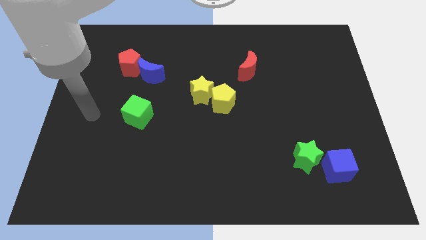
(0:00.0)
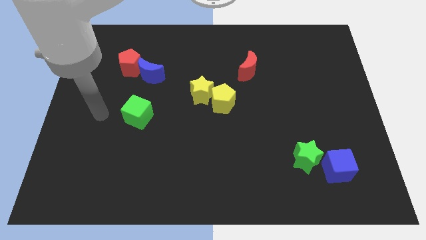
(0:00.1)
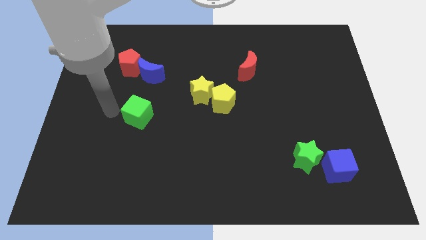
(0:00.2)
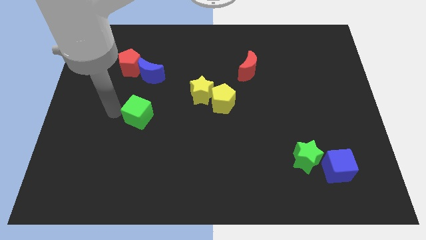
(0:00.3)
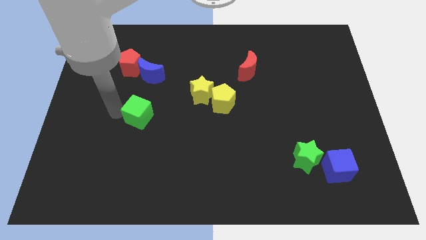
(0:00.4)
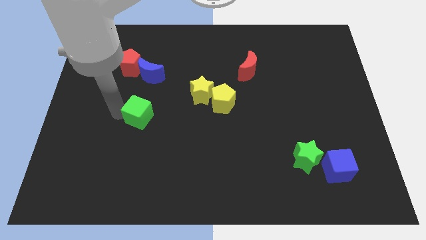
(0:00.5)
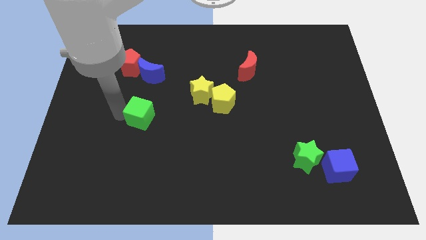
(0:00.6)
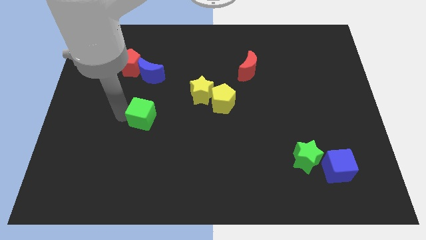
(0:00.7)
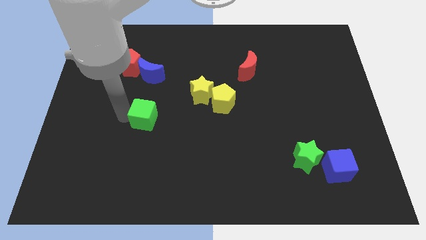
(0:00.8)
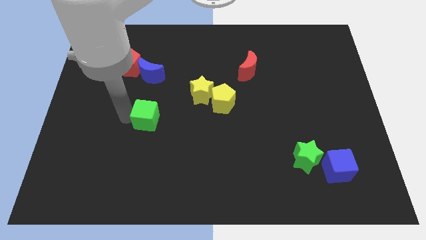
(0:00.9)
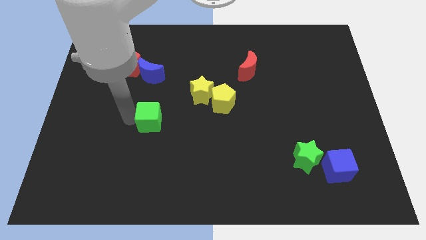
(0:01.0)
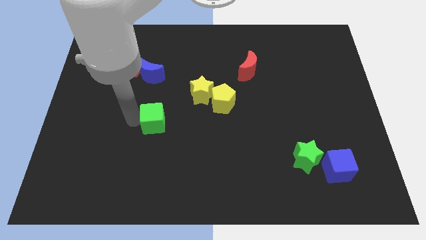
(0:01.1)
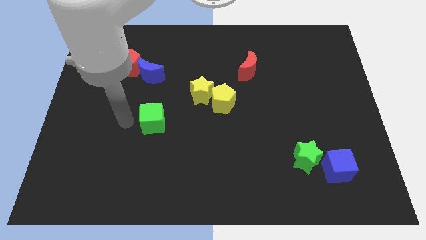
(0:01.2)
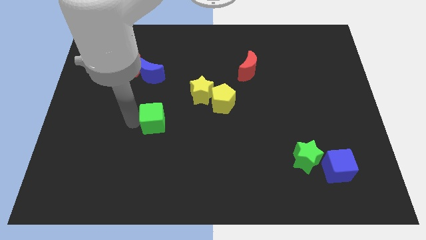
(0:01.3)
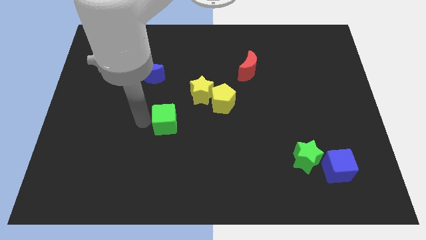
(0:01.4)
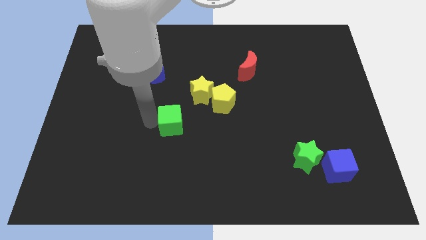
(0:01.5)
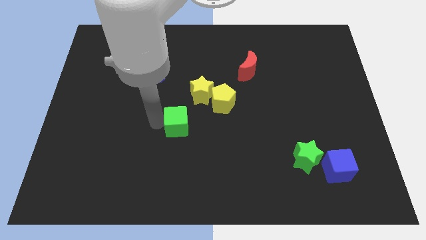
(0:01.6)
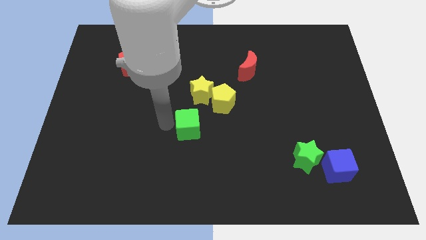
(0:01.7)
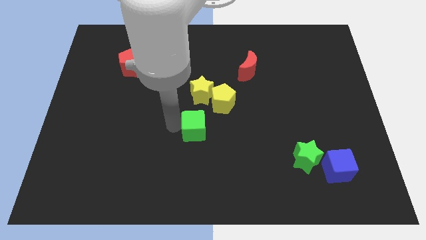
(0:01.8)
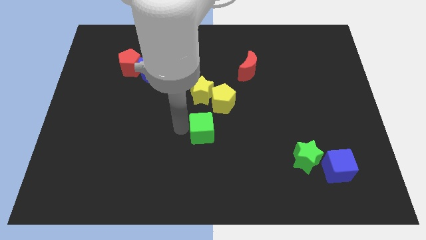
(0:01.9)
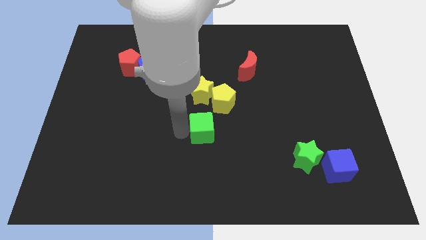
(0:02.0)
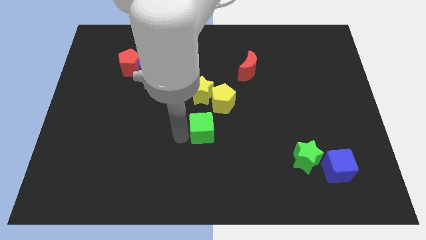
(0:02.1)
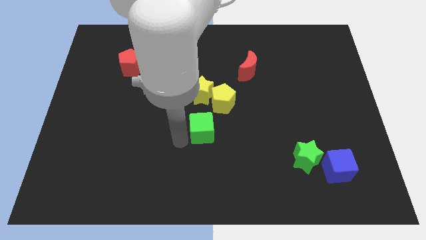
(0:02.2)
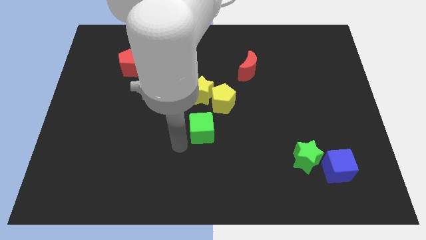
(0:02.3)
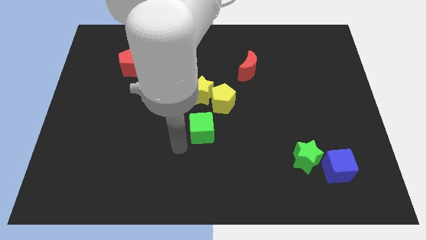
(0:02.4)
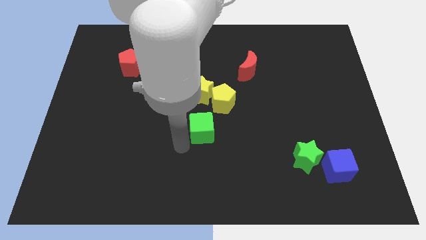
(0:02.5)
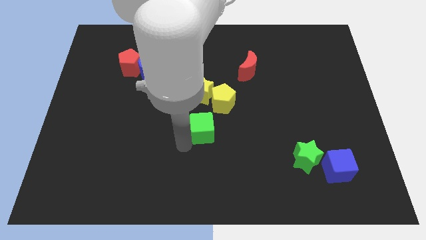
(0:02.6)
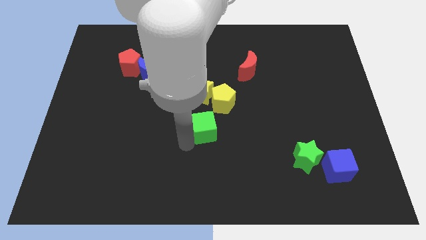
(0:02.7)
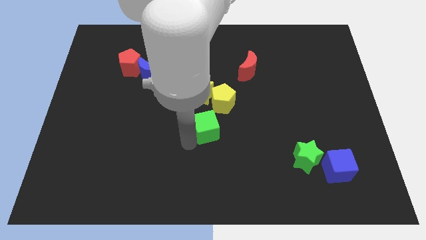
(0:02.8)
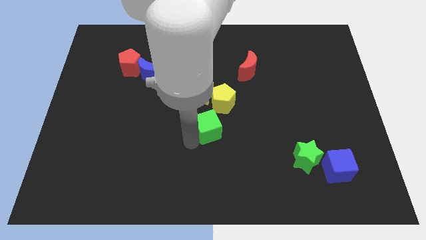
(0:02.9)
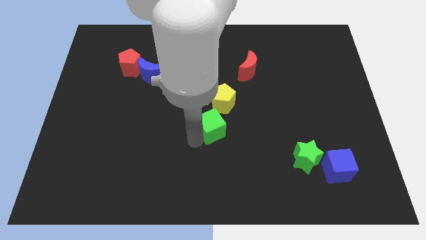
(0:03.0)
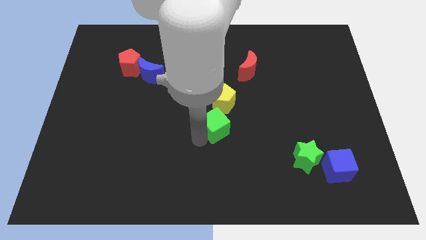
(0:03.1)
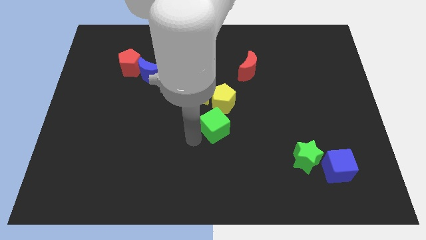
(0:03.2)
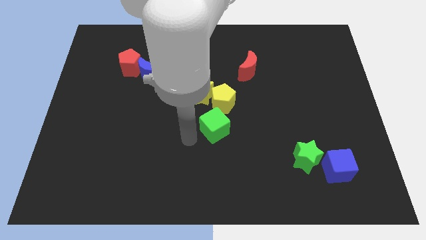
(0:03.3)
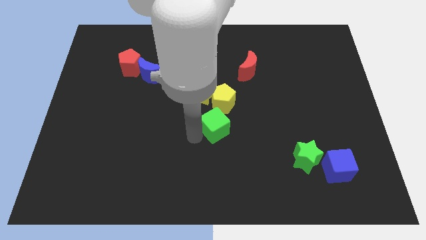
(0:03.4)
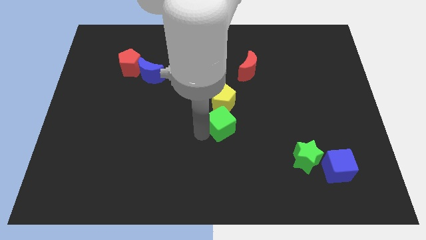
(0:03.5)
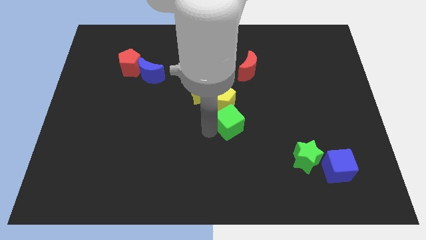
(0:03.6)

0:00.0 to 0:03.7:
slide the green cube to the right

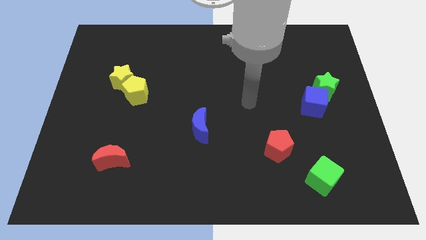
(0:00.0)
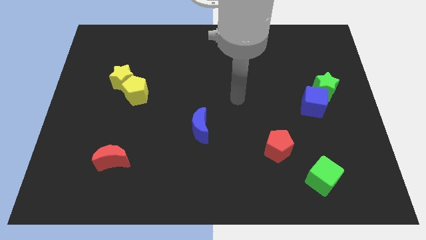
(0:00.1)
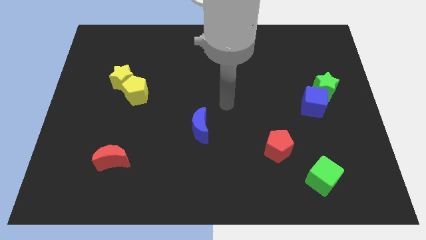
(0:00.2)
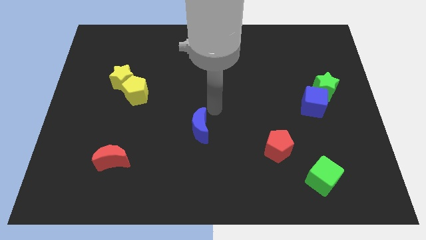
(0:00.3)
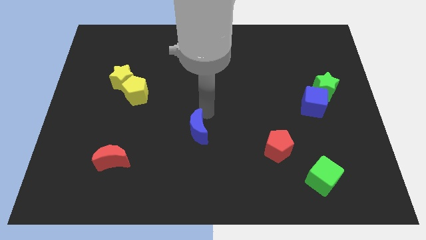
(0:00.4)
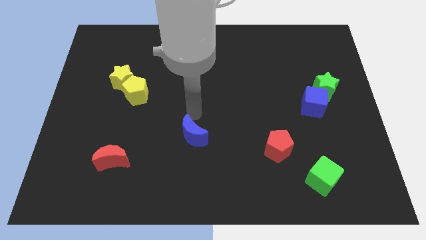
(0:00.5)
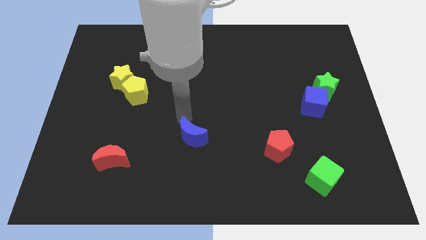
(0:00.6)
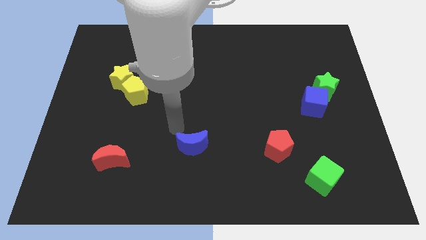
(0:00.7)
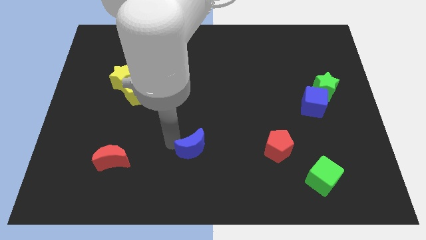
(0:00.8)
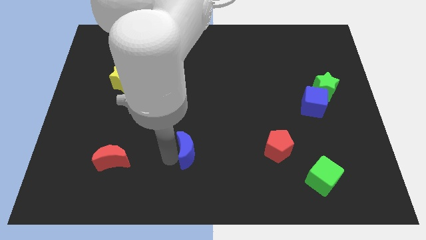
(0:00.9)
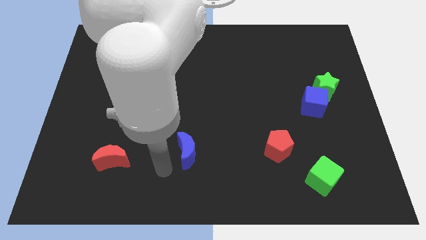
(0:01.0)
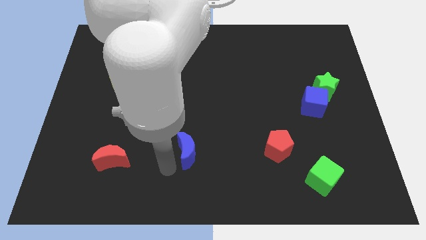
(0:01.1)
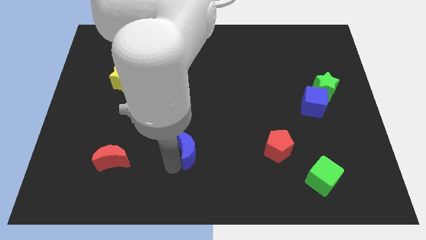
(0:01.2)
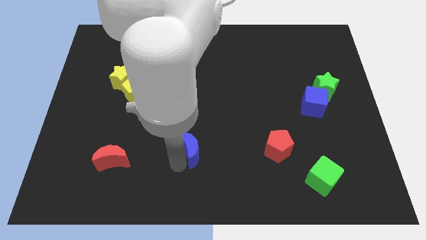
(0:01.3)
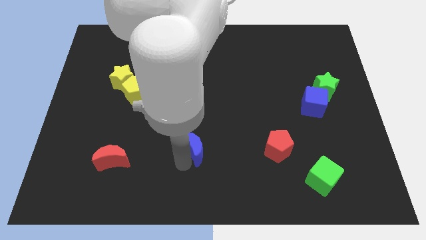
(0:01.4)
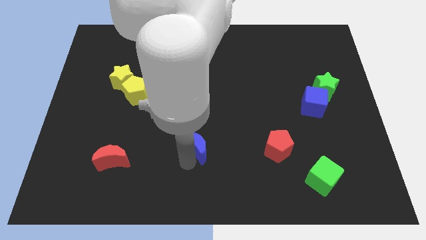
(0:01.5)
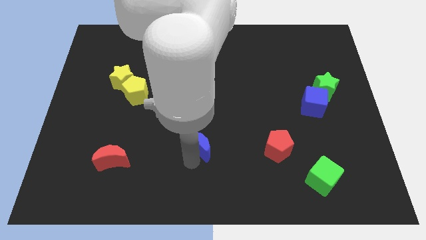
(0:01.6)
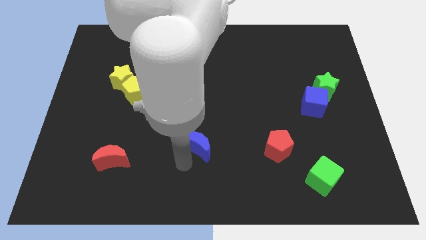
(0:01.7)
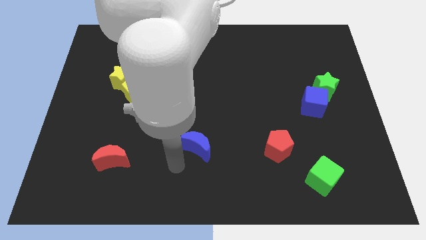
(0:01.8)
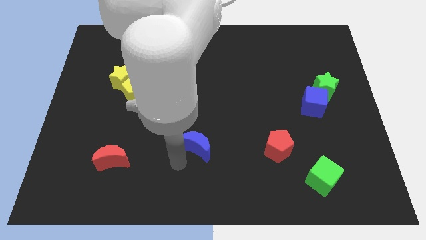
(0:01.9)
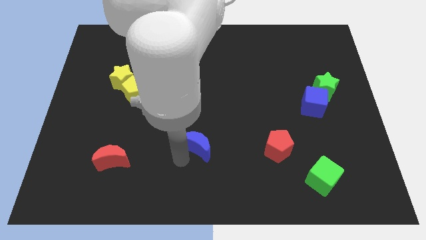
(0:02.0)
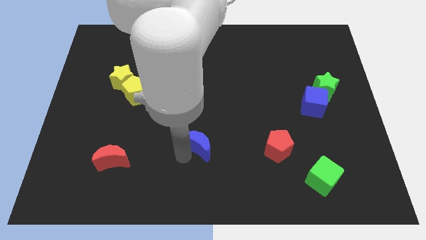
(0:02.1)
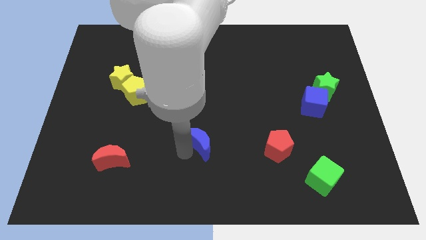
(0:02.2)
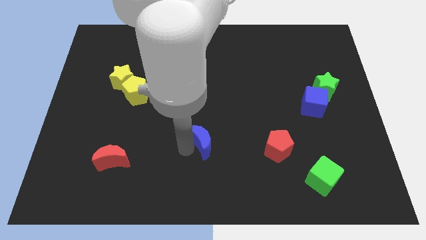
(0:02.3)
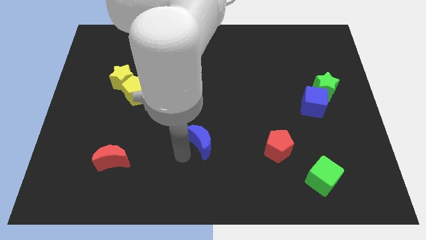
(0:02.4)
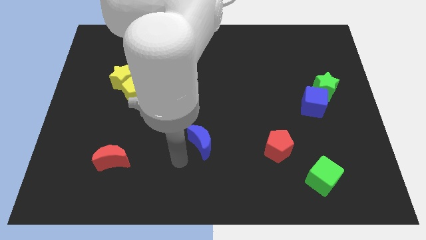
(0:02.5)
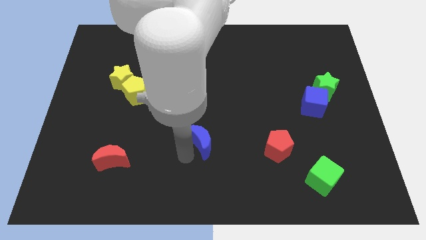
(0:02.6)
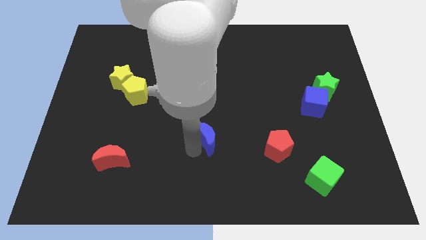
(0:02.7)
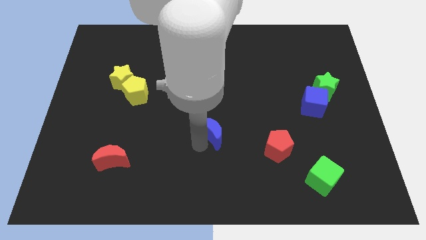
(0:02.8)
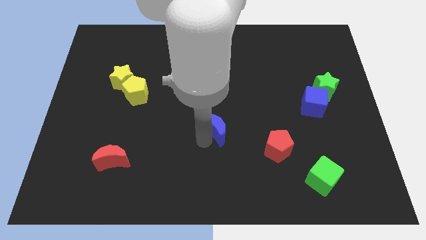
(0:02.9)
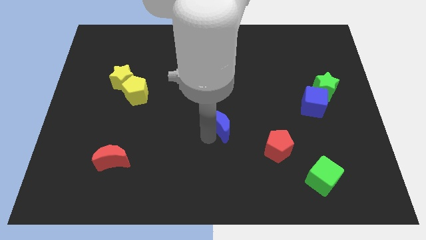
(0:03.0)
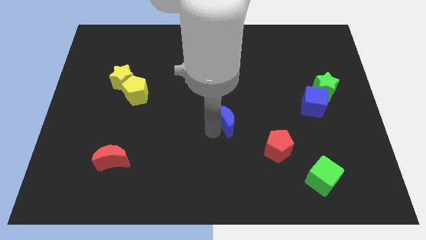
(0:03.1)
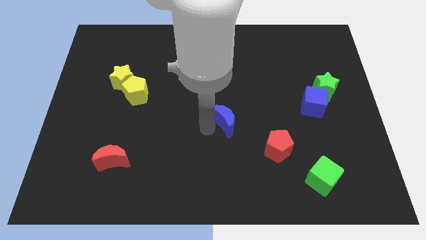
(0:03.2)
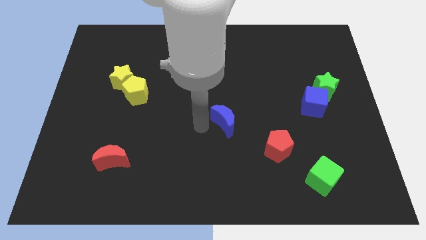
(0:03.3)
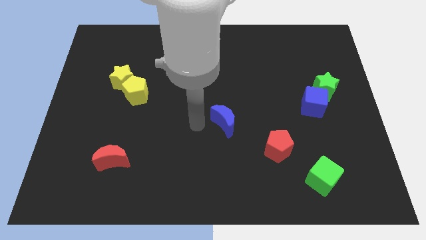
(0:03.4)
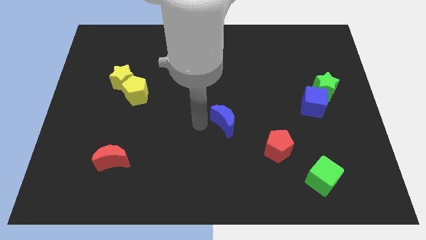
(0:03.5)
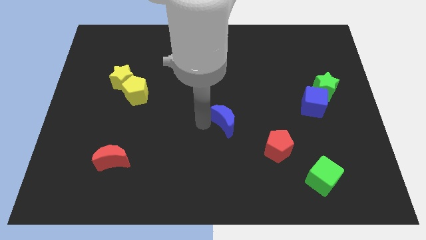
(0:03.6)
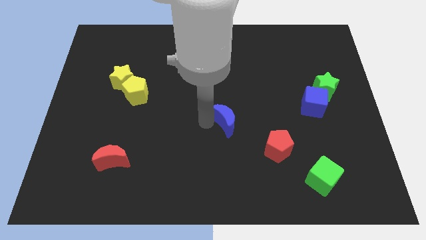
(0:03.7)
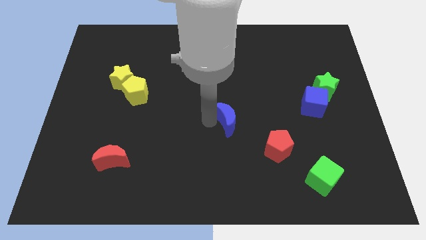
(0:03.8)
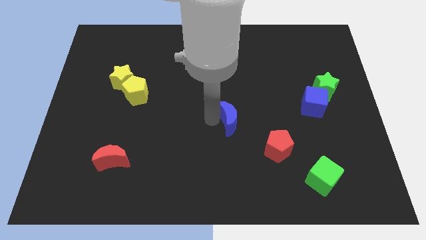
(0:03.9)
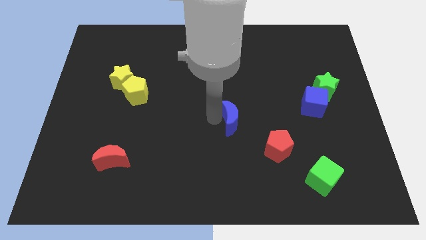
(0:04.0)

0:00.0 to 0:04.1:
slide the blue moon right slightly

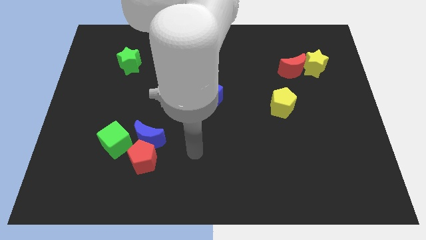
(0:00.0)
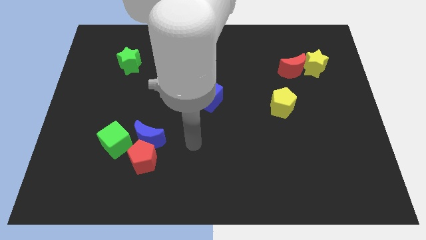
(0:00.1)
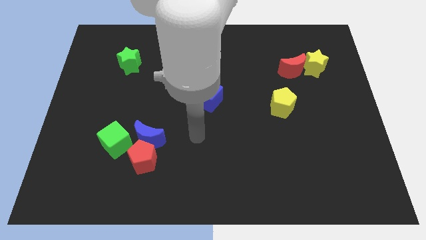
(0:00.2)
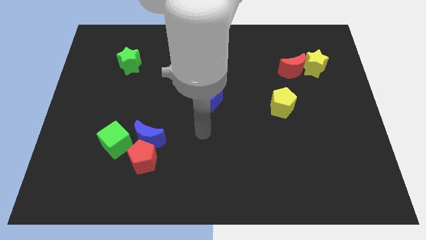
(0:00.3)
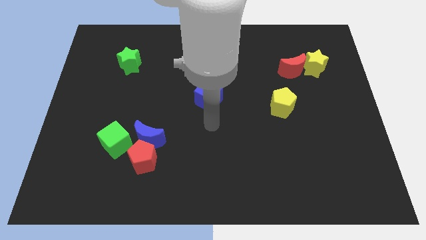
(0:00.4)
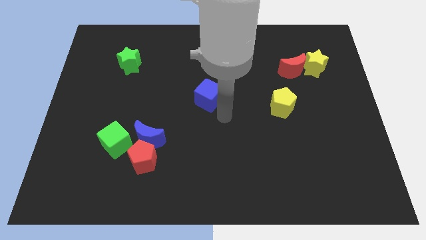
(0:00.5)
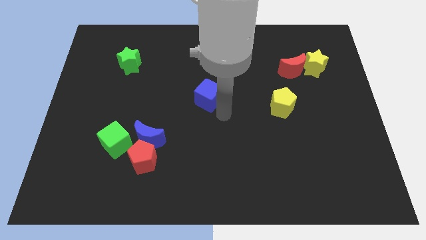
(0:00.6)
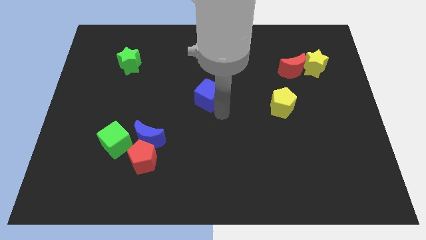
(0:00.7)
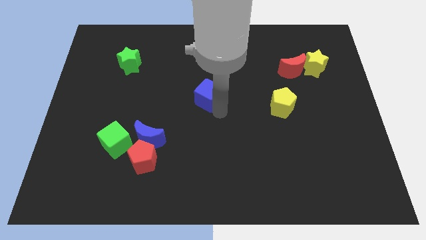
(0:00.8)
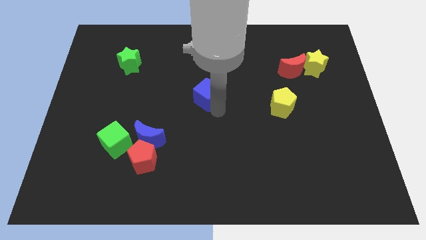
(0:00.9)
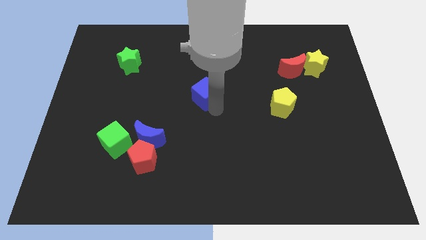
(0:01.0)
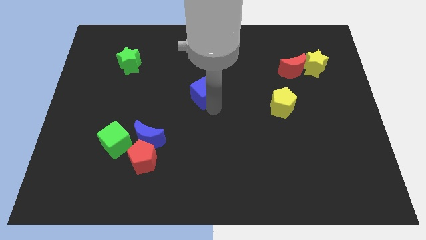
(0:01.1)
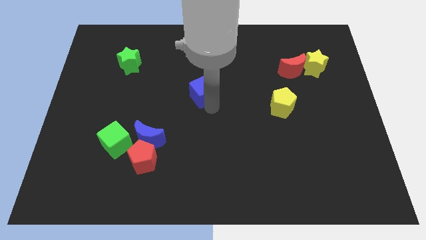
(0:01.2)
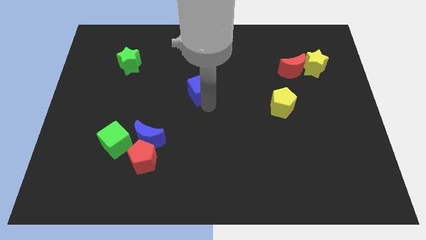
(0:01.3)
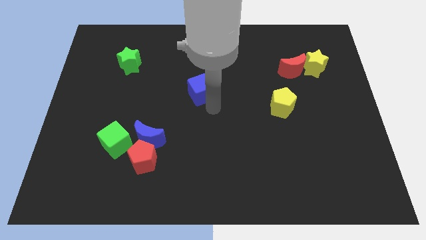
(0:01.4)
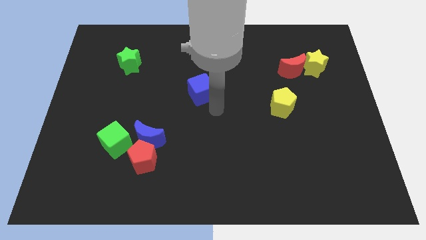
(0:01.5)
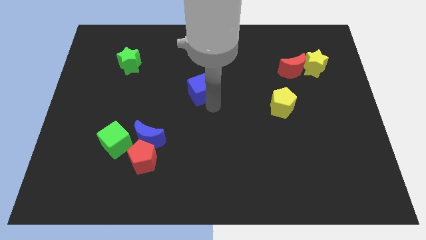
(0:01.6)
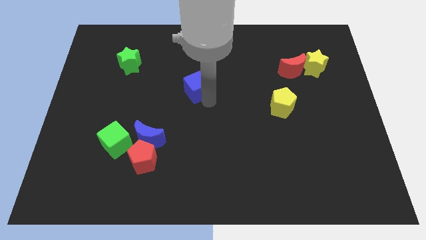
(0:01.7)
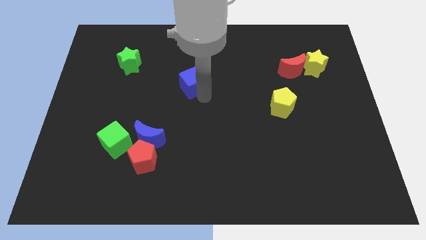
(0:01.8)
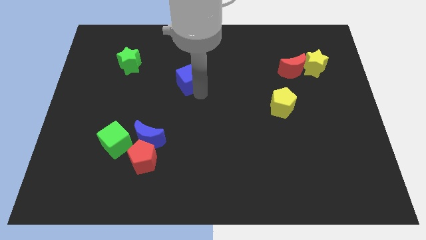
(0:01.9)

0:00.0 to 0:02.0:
slightly push the blue cube upwards and left
